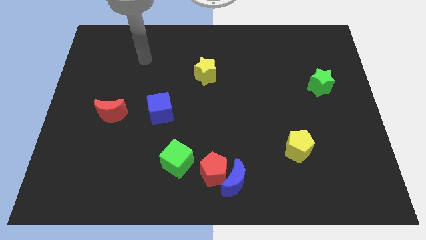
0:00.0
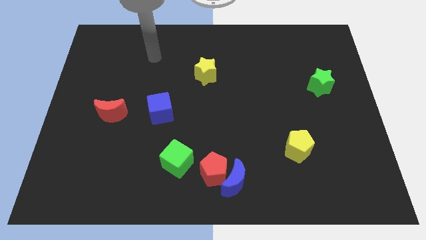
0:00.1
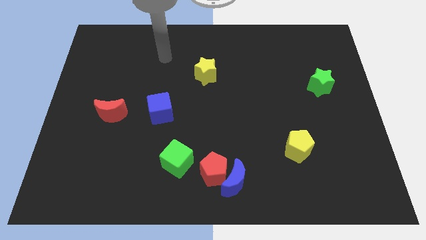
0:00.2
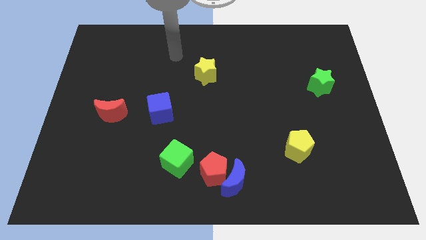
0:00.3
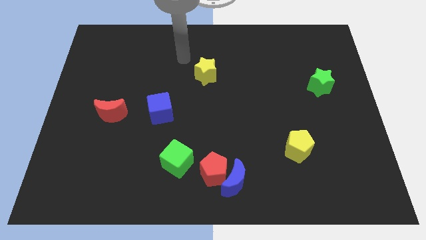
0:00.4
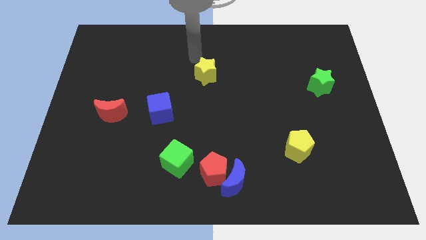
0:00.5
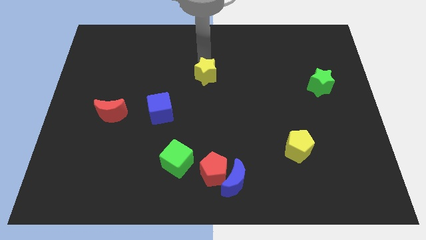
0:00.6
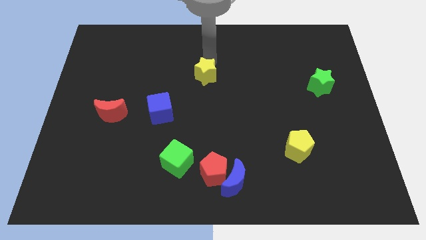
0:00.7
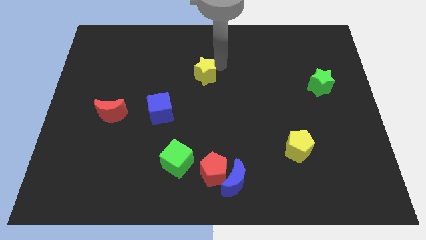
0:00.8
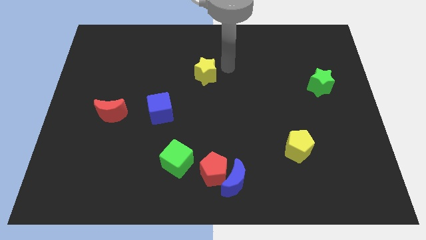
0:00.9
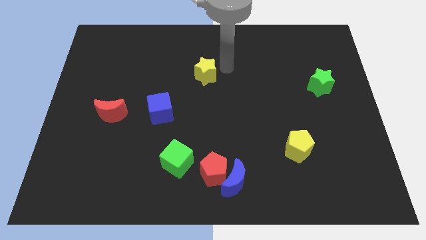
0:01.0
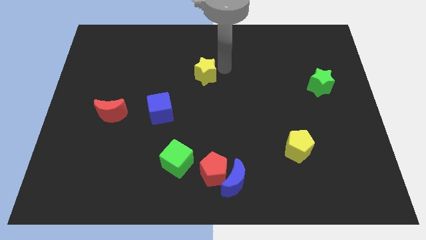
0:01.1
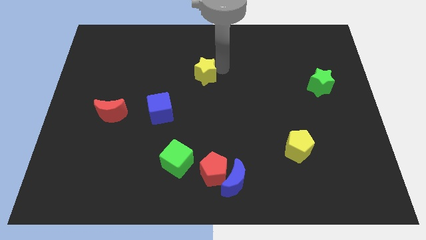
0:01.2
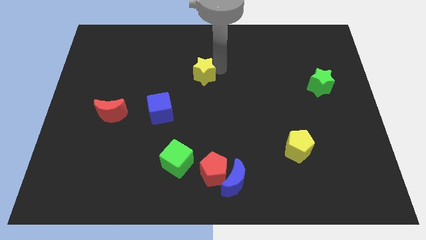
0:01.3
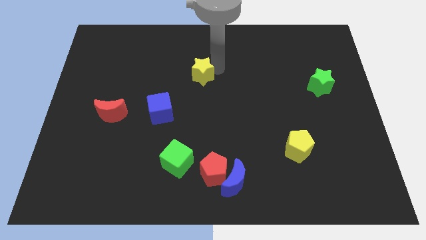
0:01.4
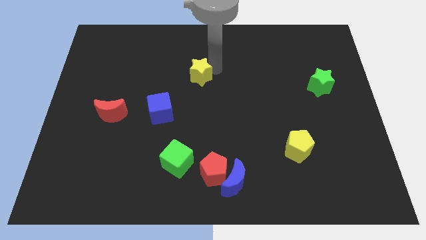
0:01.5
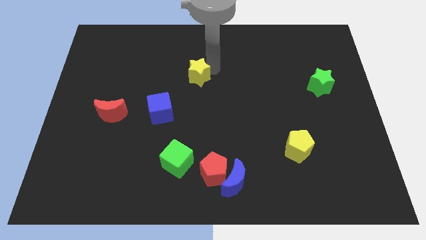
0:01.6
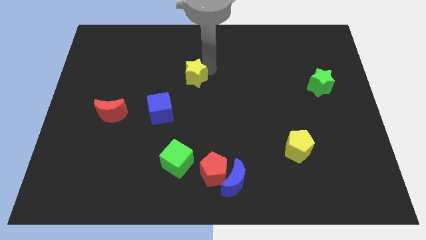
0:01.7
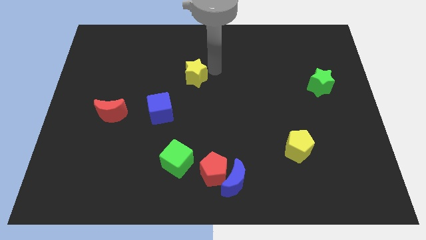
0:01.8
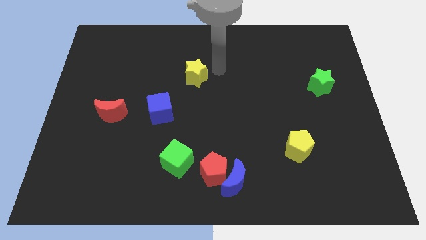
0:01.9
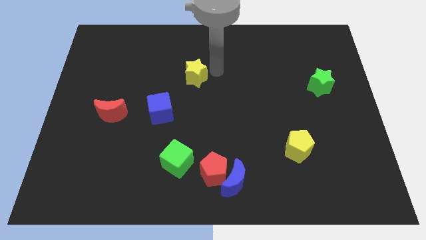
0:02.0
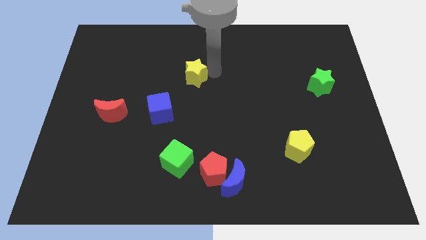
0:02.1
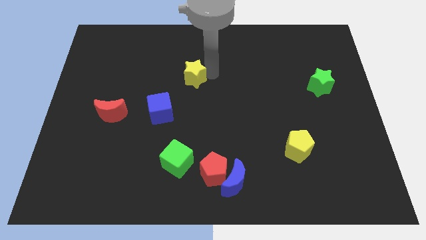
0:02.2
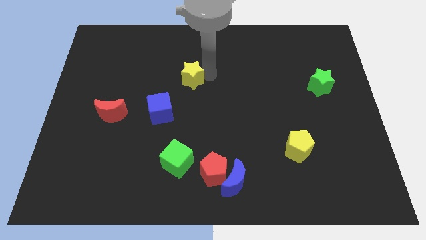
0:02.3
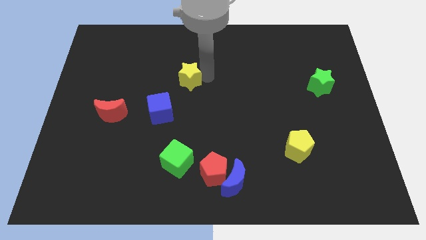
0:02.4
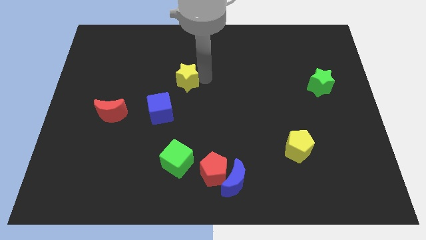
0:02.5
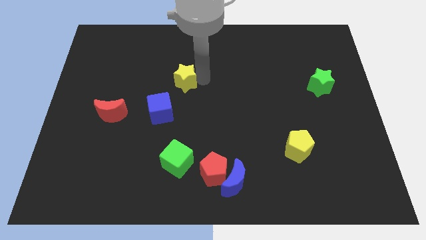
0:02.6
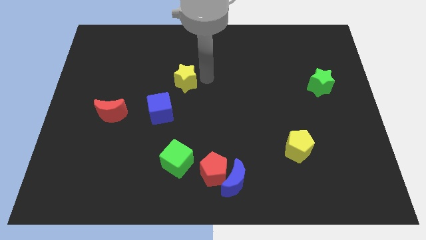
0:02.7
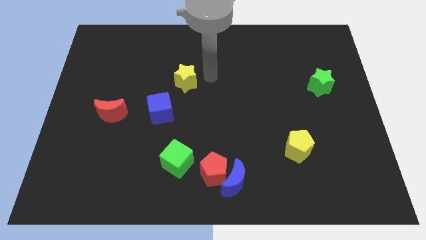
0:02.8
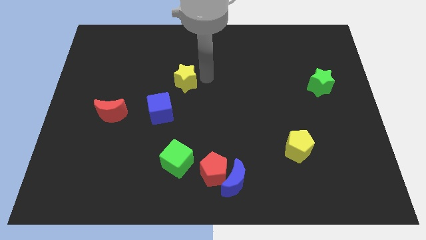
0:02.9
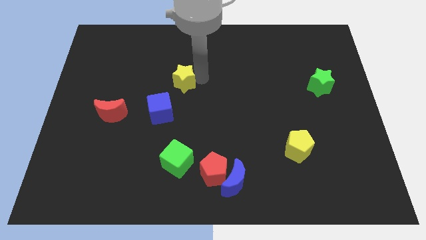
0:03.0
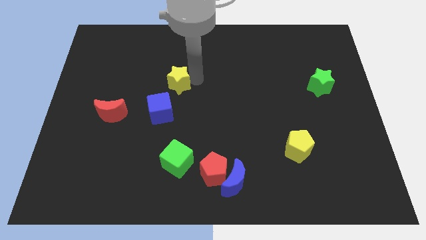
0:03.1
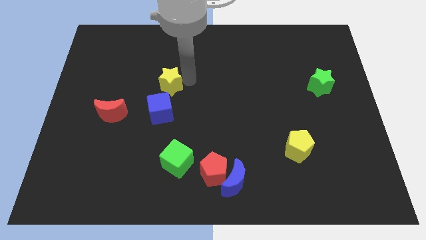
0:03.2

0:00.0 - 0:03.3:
push the yellow star a little bit down and left diagonally

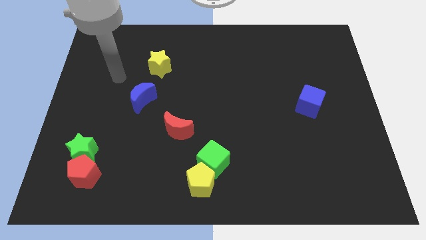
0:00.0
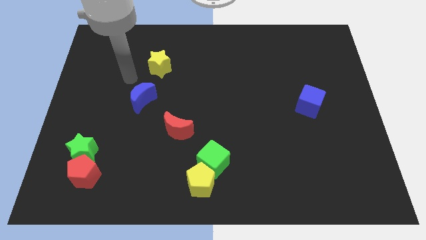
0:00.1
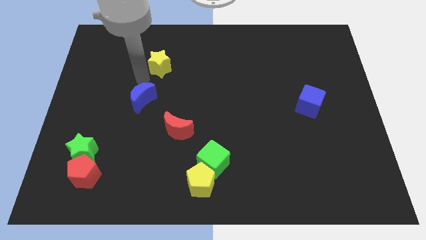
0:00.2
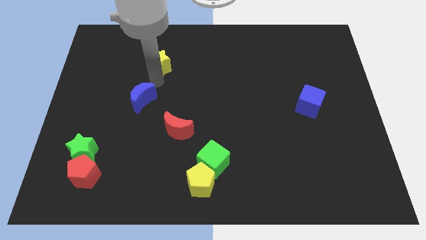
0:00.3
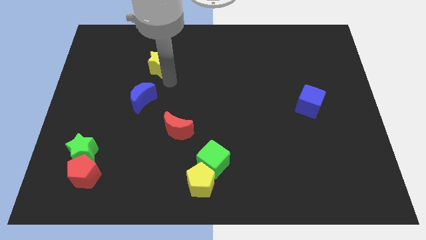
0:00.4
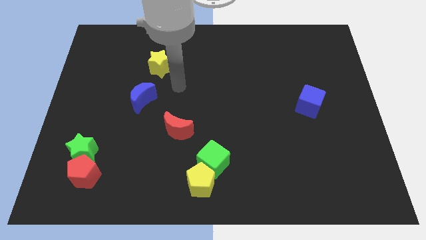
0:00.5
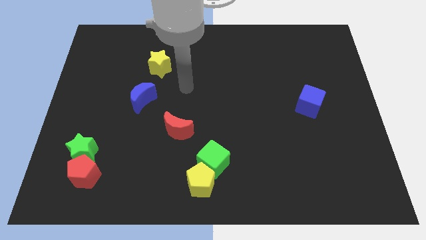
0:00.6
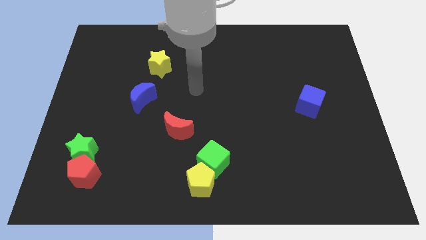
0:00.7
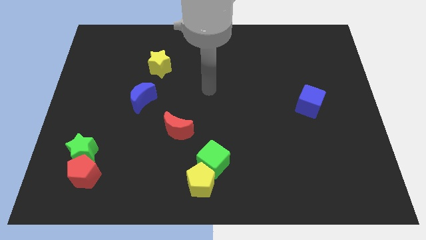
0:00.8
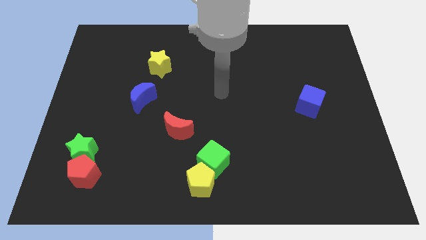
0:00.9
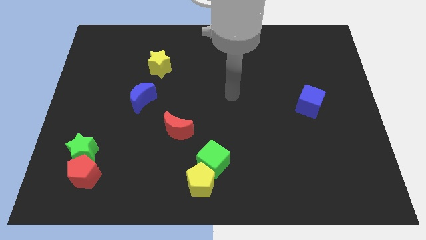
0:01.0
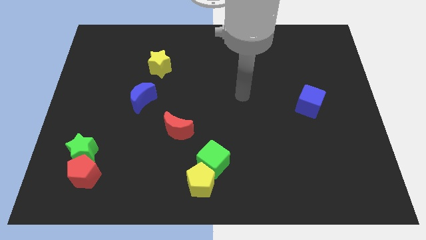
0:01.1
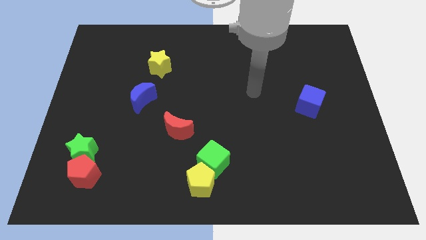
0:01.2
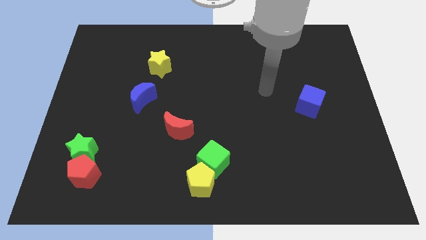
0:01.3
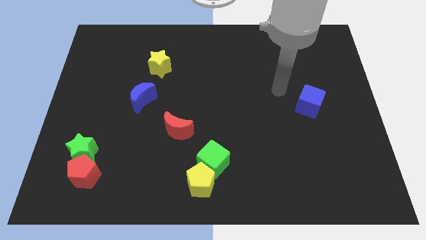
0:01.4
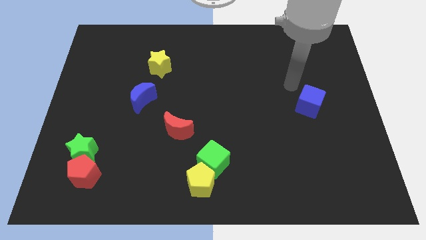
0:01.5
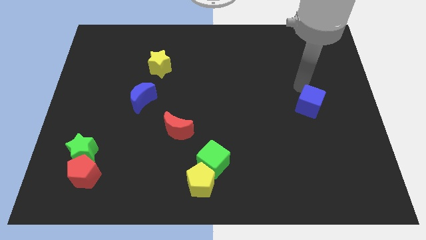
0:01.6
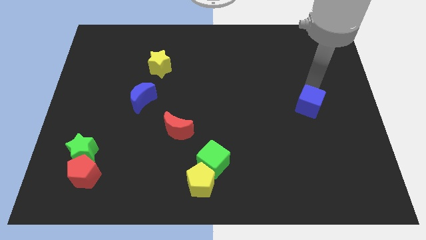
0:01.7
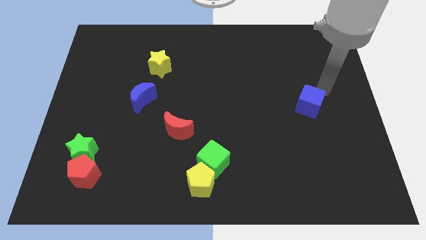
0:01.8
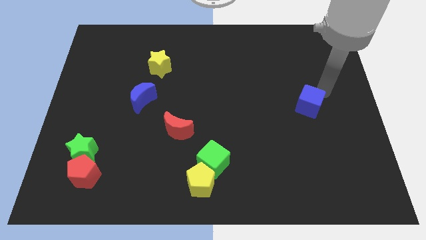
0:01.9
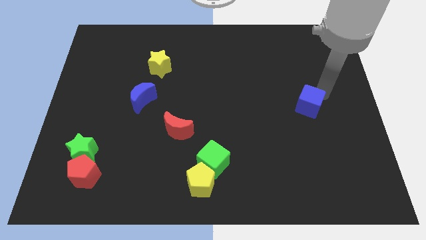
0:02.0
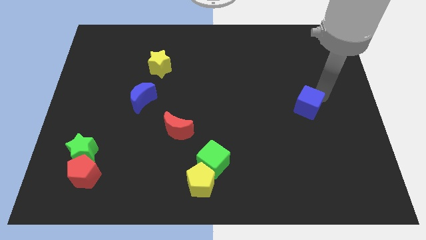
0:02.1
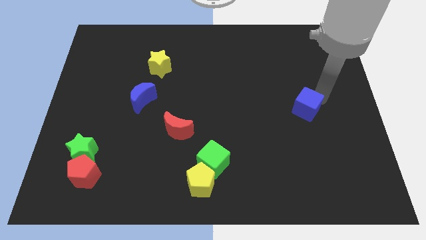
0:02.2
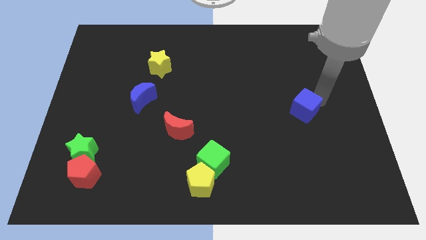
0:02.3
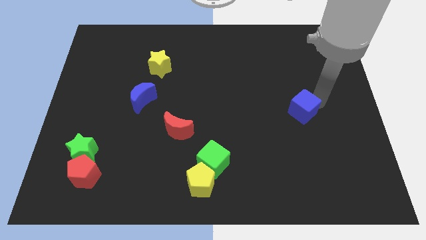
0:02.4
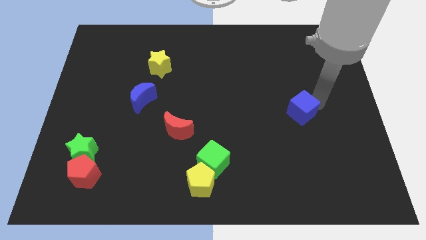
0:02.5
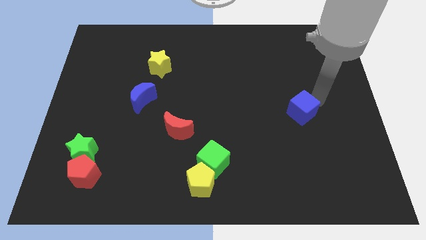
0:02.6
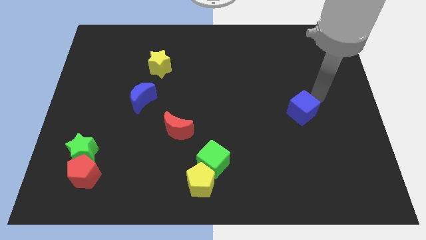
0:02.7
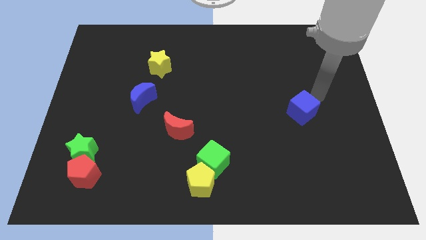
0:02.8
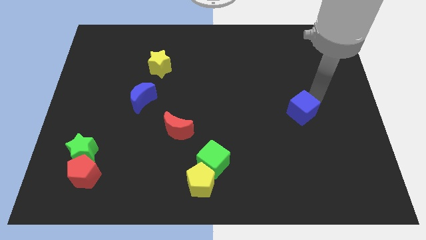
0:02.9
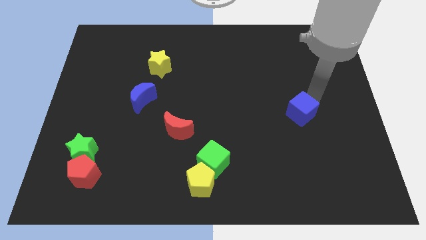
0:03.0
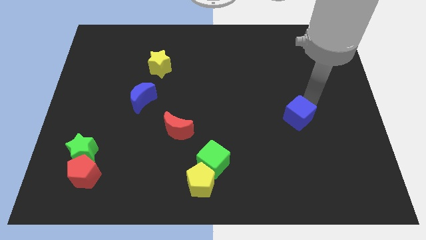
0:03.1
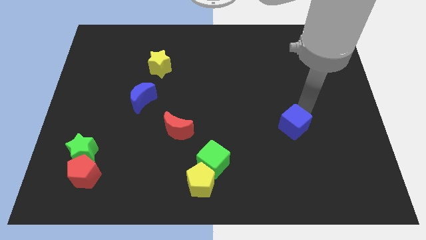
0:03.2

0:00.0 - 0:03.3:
slightly move the blue cube downwards and left diagonally

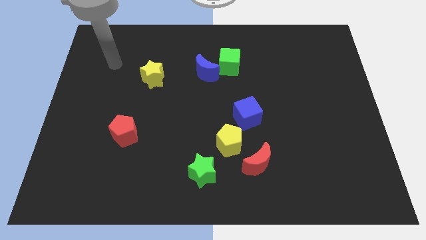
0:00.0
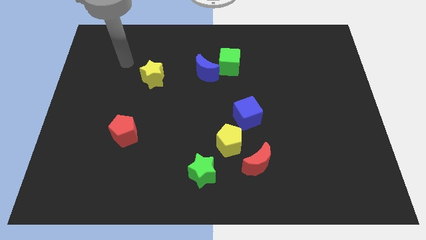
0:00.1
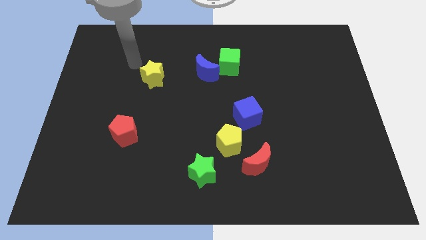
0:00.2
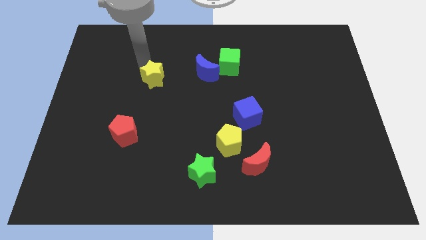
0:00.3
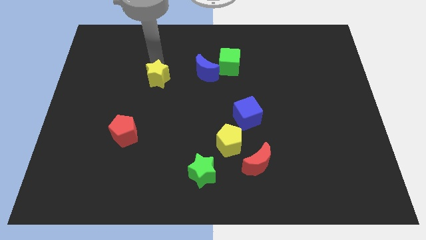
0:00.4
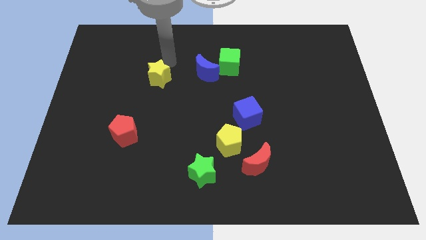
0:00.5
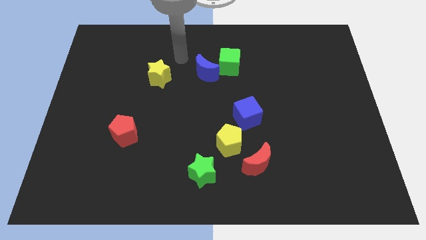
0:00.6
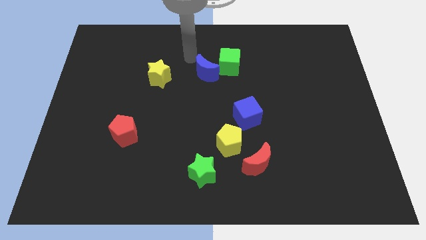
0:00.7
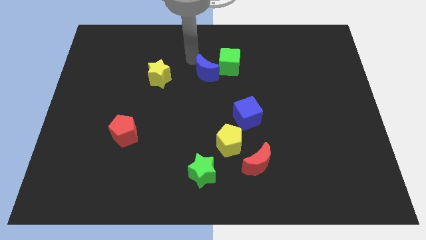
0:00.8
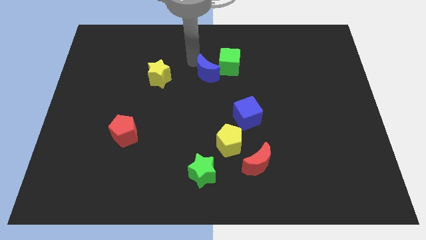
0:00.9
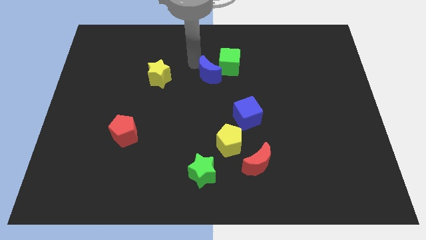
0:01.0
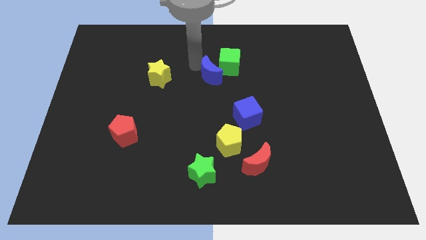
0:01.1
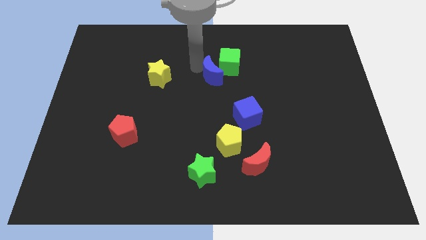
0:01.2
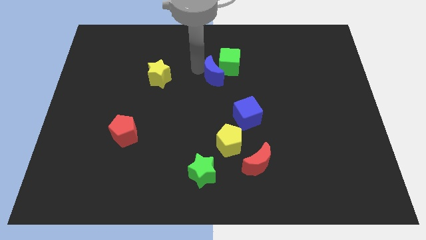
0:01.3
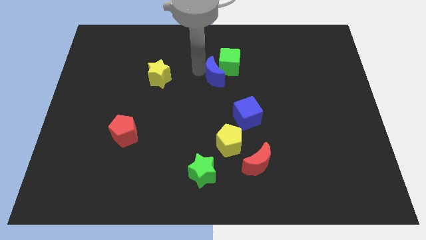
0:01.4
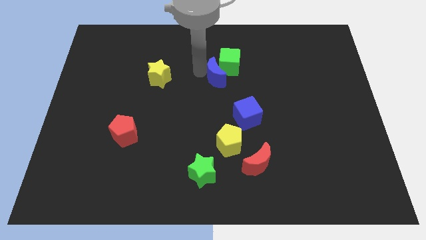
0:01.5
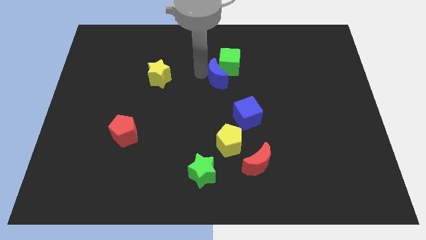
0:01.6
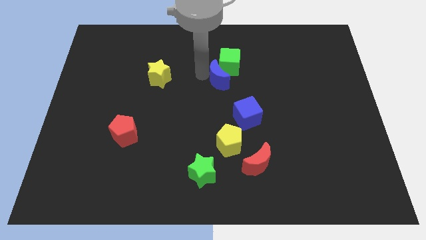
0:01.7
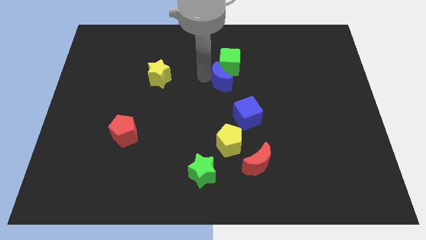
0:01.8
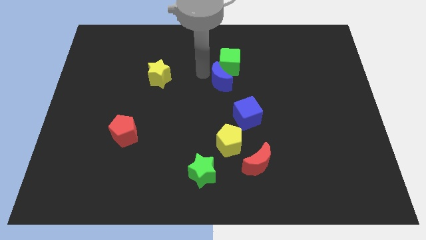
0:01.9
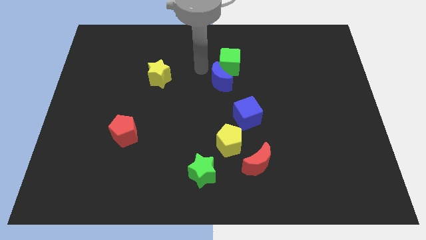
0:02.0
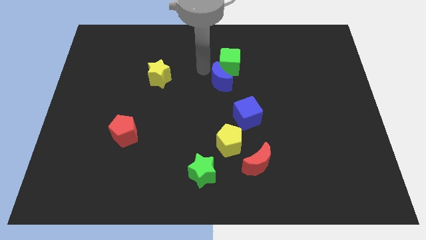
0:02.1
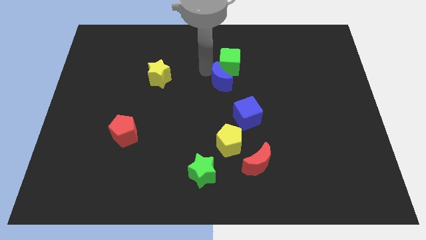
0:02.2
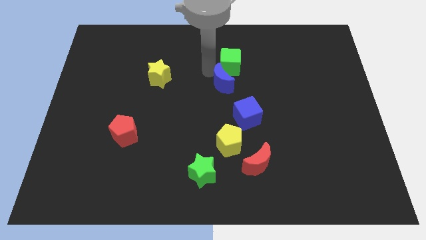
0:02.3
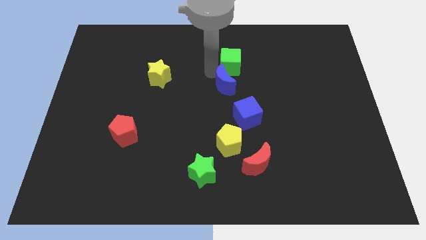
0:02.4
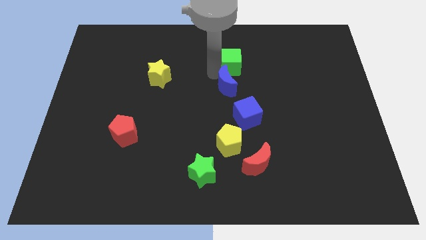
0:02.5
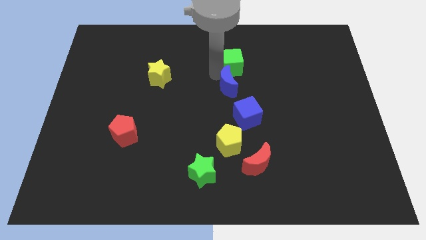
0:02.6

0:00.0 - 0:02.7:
slightly move the blue moon down and right
